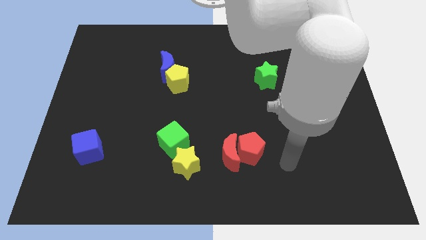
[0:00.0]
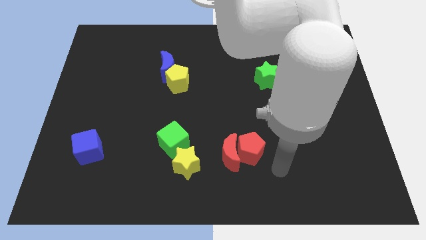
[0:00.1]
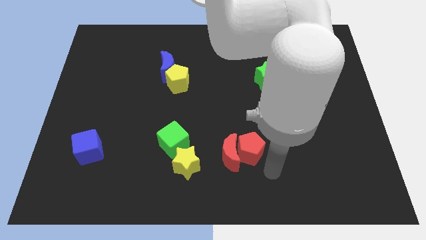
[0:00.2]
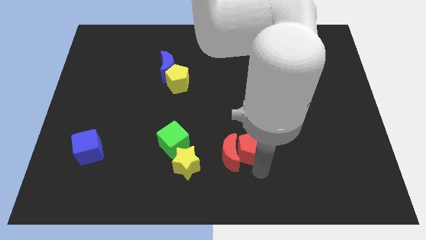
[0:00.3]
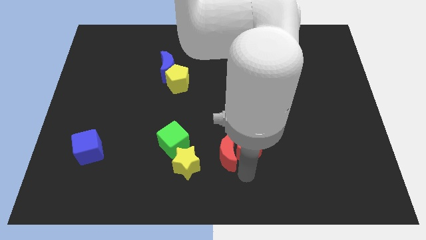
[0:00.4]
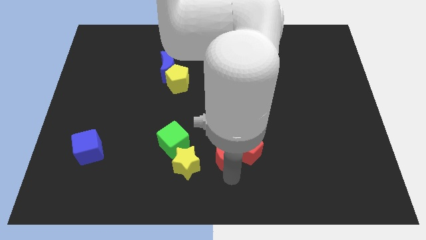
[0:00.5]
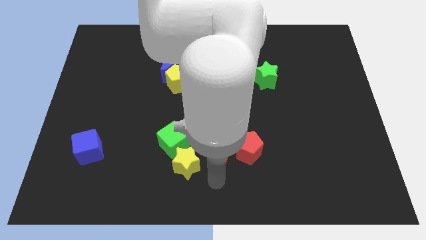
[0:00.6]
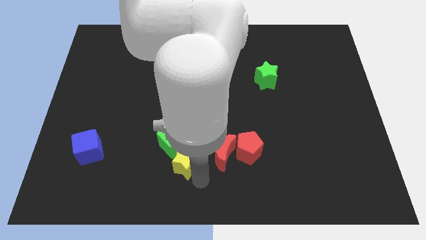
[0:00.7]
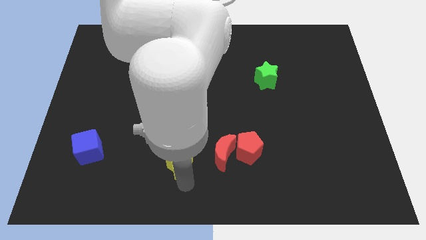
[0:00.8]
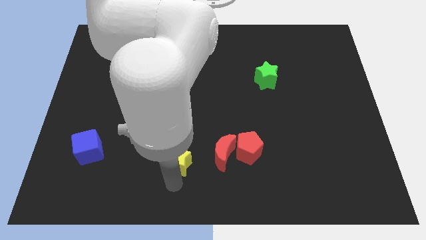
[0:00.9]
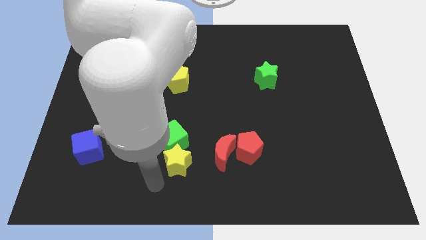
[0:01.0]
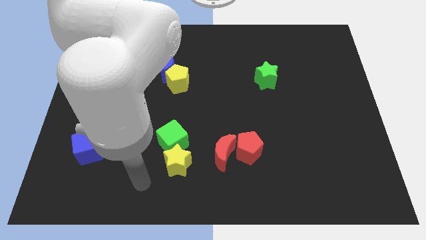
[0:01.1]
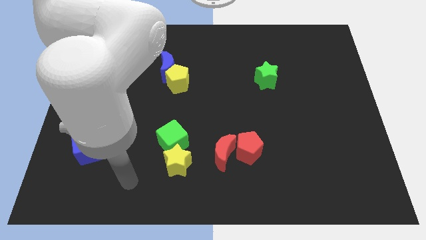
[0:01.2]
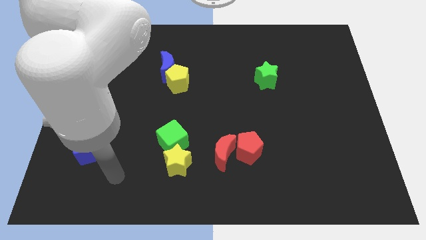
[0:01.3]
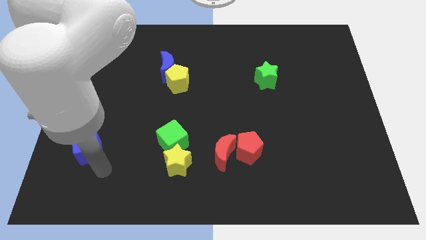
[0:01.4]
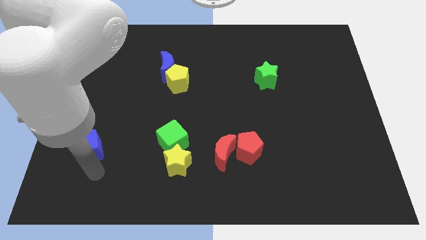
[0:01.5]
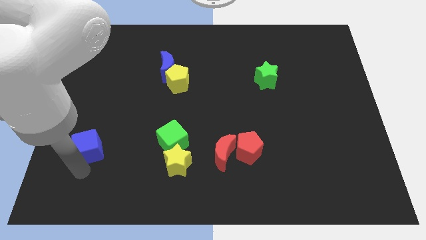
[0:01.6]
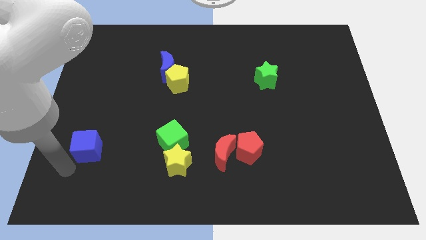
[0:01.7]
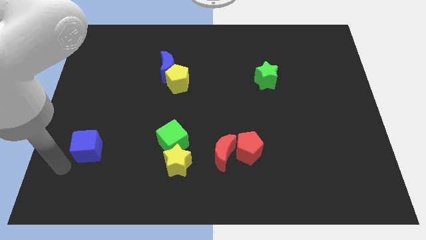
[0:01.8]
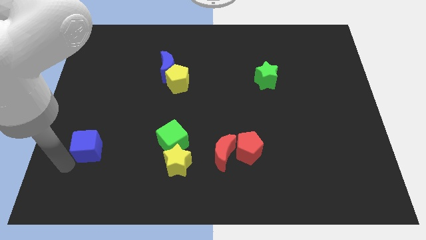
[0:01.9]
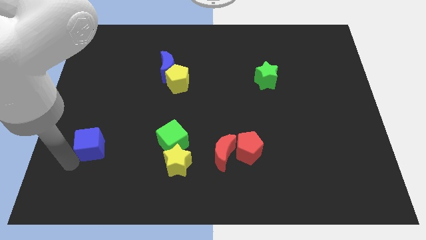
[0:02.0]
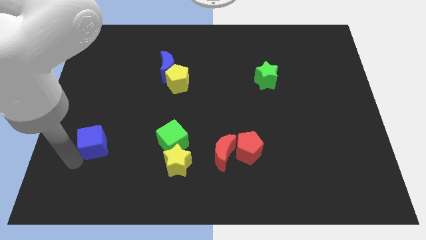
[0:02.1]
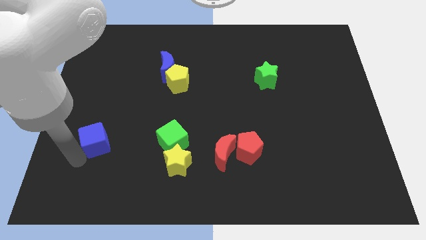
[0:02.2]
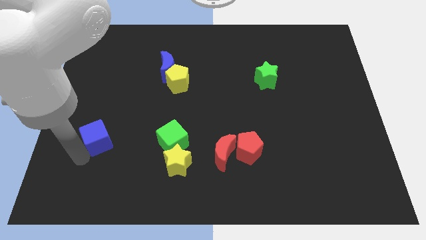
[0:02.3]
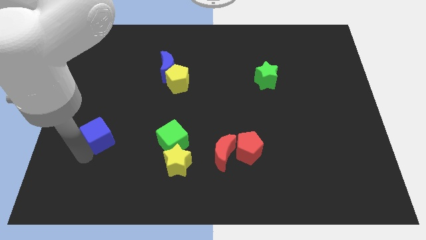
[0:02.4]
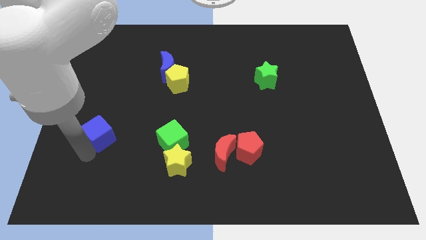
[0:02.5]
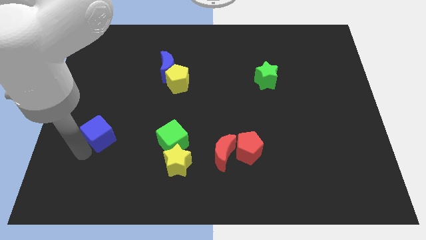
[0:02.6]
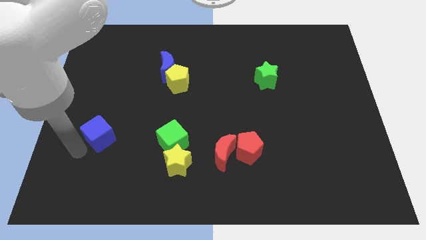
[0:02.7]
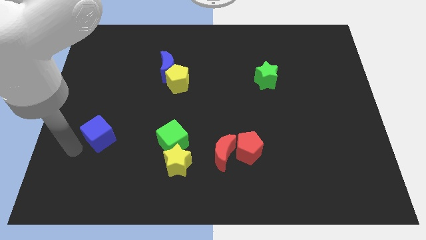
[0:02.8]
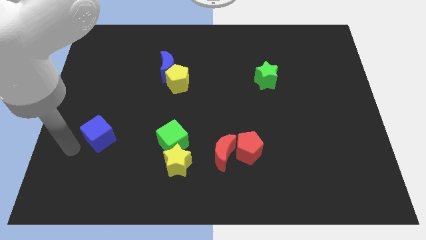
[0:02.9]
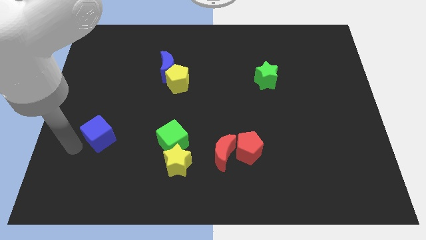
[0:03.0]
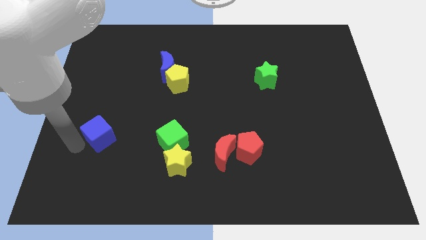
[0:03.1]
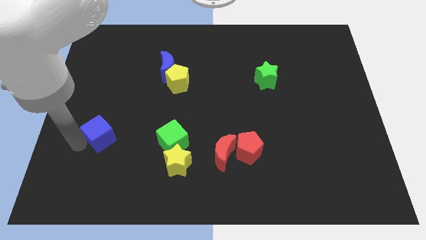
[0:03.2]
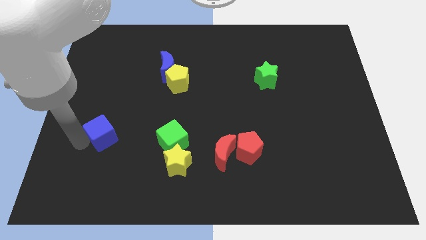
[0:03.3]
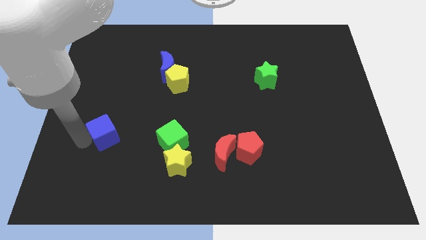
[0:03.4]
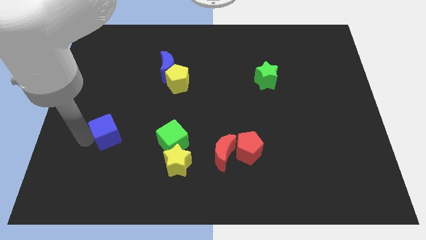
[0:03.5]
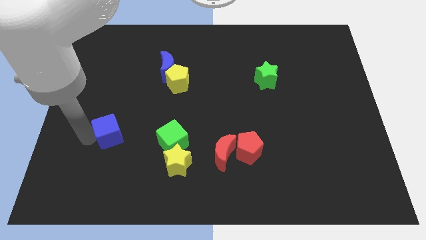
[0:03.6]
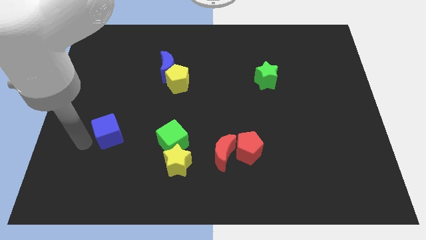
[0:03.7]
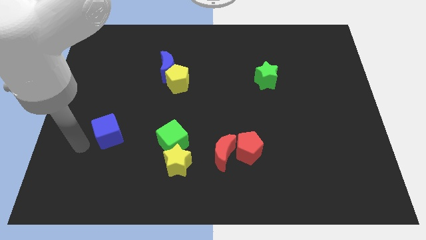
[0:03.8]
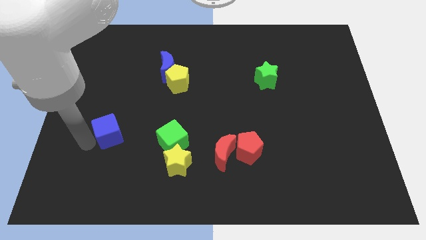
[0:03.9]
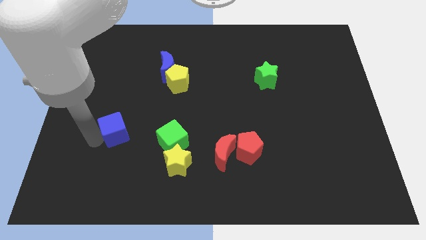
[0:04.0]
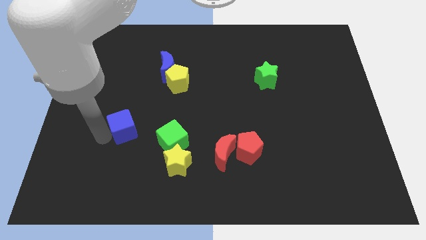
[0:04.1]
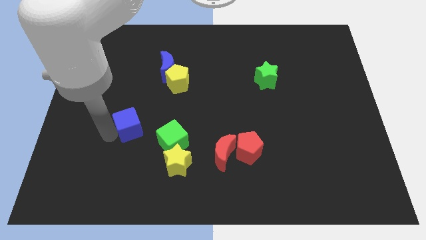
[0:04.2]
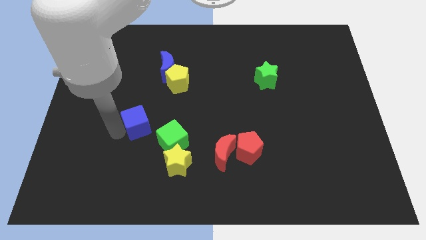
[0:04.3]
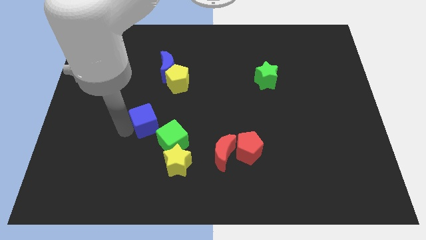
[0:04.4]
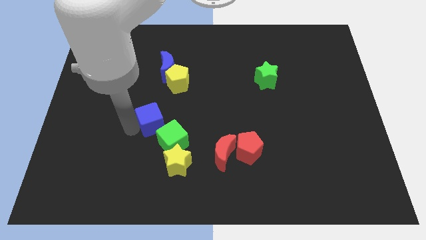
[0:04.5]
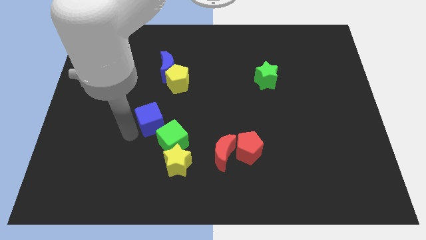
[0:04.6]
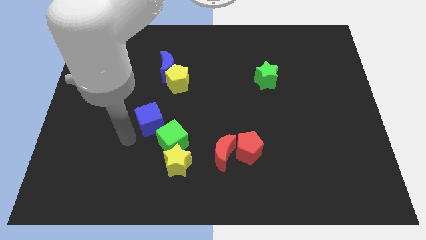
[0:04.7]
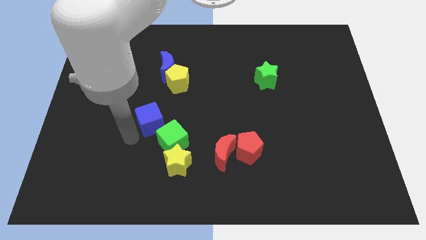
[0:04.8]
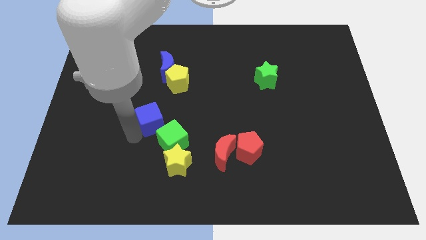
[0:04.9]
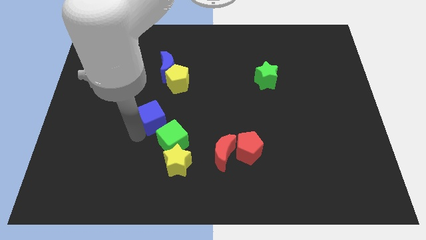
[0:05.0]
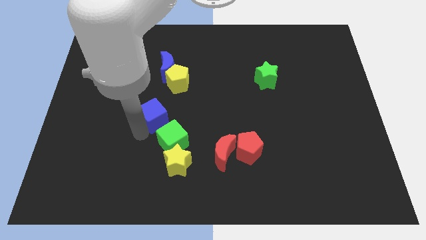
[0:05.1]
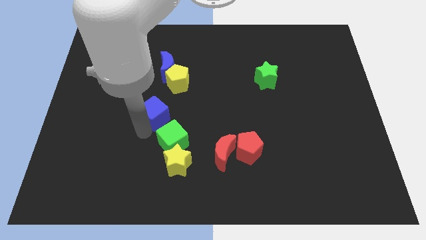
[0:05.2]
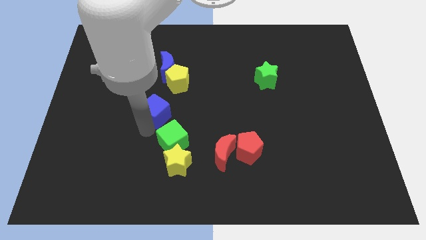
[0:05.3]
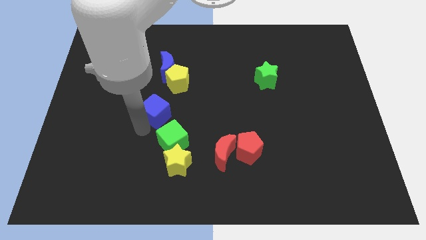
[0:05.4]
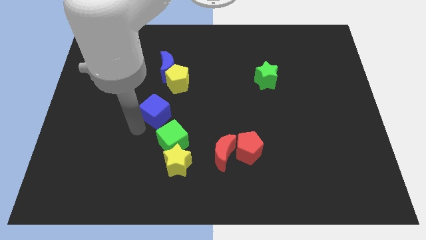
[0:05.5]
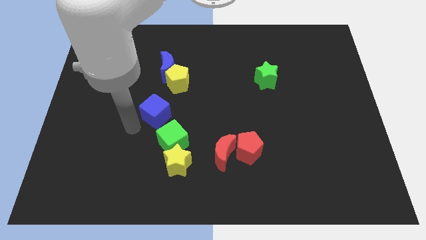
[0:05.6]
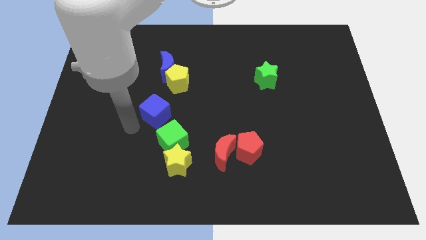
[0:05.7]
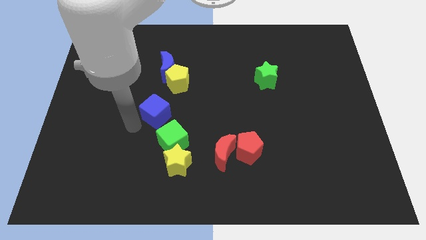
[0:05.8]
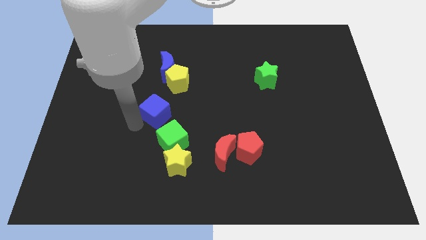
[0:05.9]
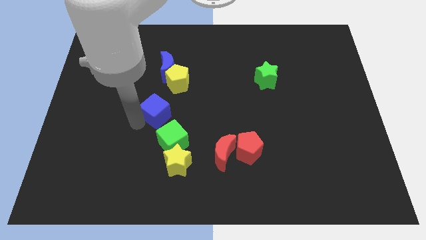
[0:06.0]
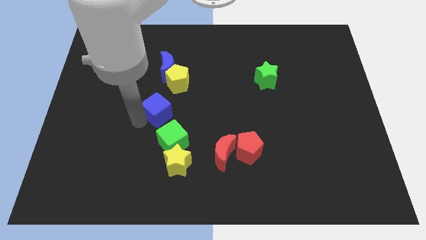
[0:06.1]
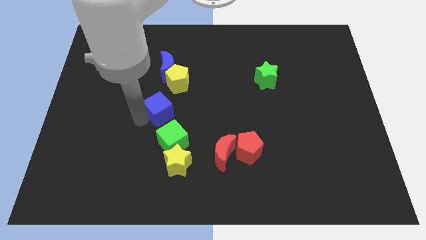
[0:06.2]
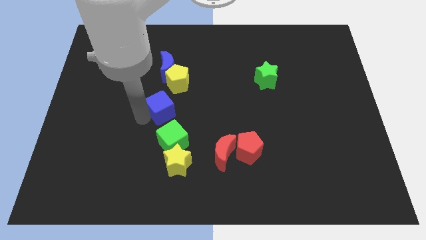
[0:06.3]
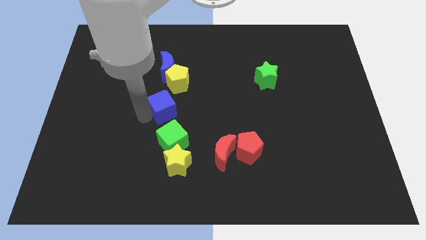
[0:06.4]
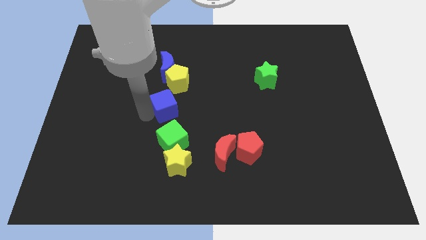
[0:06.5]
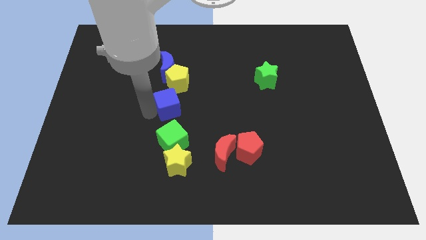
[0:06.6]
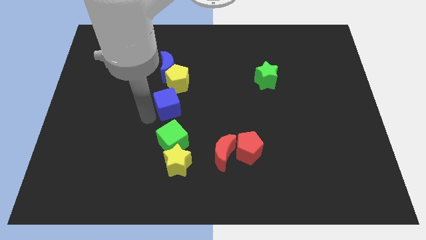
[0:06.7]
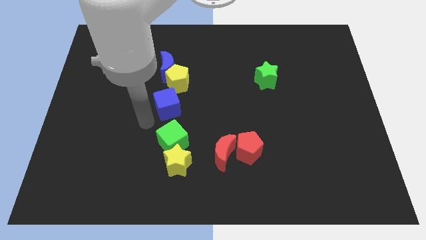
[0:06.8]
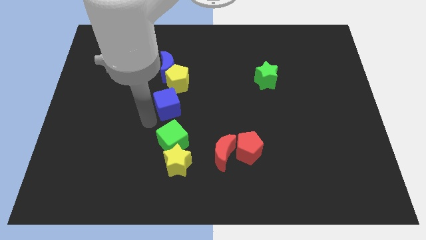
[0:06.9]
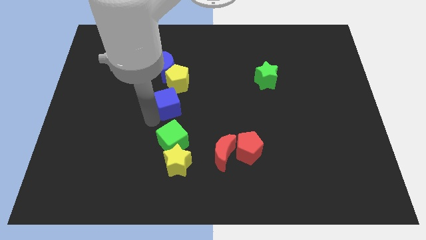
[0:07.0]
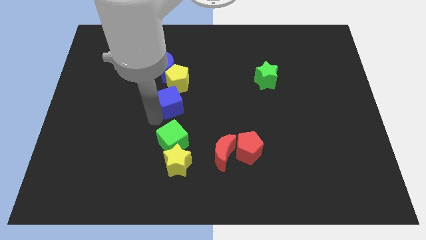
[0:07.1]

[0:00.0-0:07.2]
push the blue cube upwards and to the right

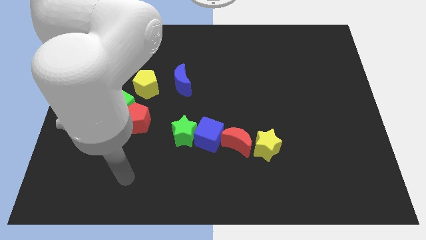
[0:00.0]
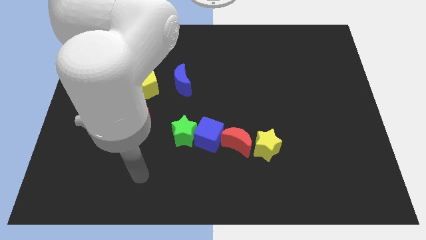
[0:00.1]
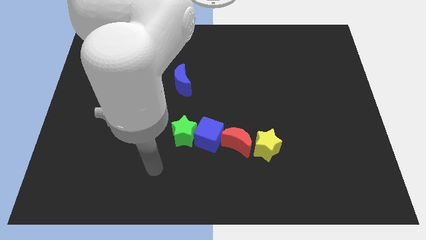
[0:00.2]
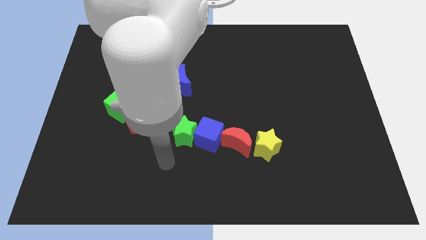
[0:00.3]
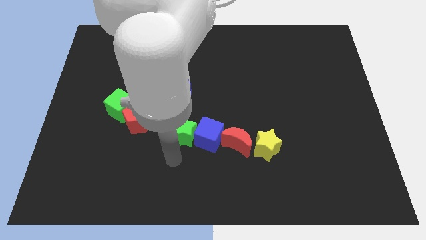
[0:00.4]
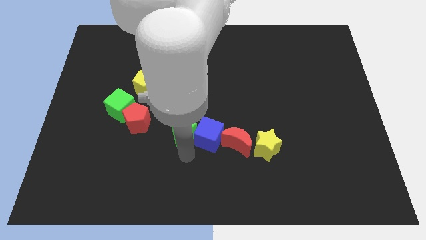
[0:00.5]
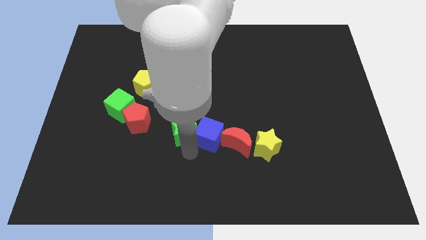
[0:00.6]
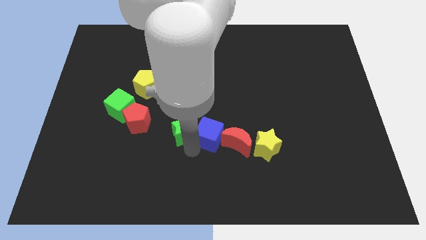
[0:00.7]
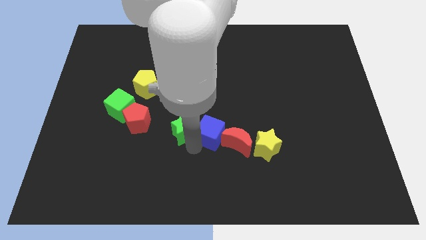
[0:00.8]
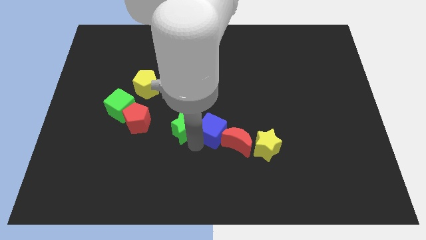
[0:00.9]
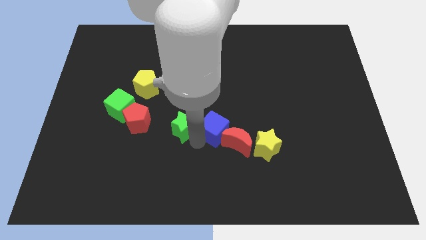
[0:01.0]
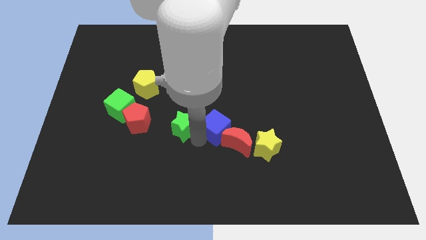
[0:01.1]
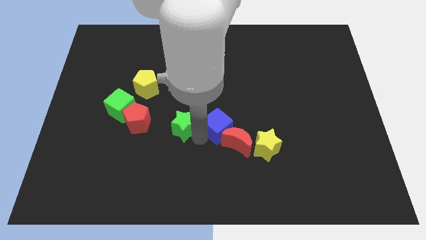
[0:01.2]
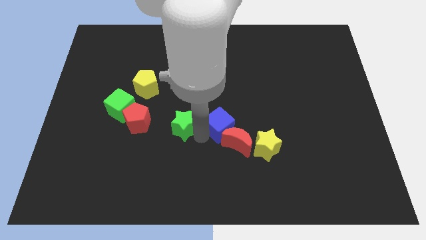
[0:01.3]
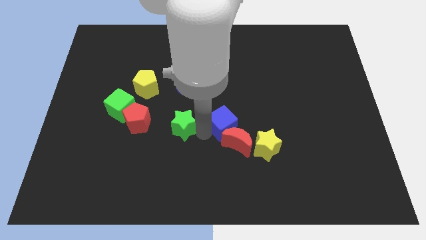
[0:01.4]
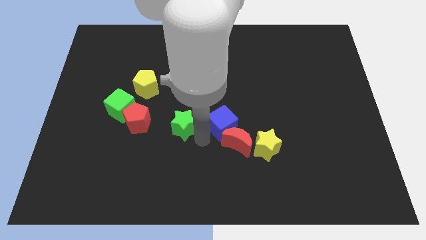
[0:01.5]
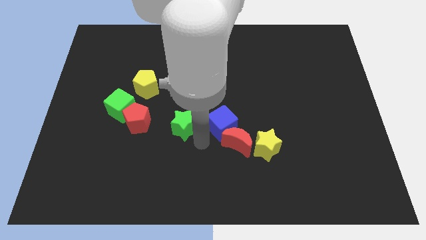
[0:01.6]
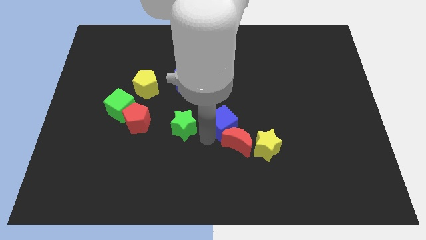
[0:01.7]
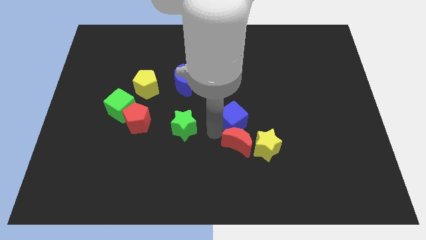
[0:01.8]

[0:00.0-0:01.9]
move the blue cube diagonally up and to the right a bit
